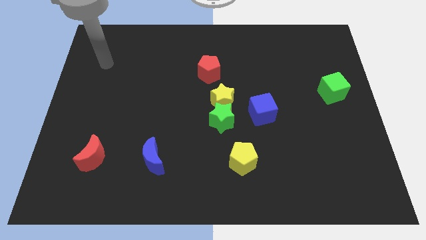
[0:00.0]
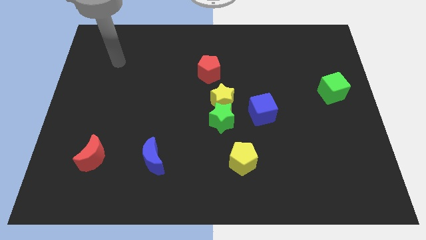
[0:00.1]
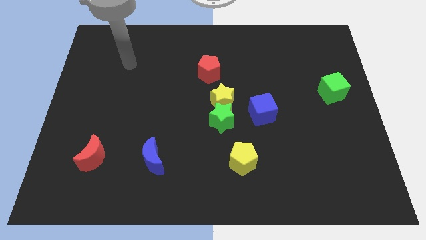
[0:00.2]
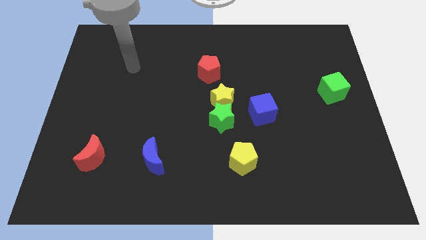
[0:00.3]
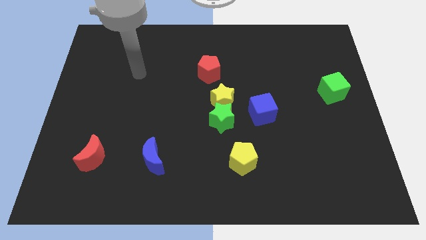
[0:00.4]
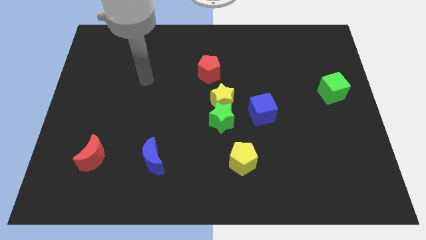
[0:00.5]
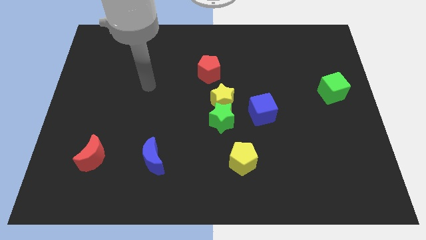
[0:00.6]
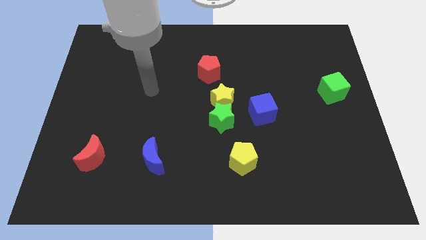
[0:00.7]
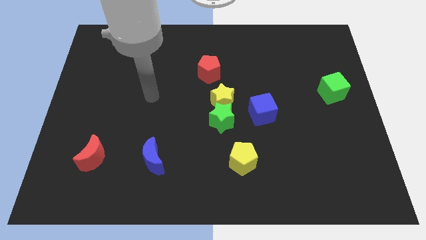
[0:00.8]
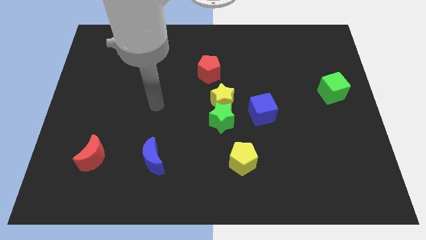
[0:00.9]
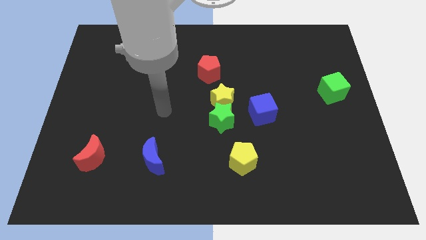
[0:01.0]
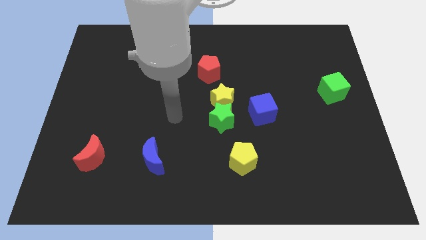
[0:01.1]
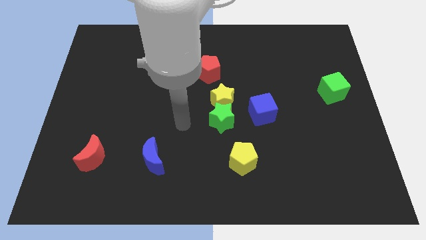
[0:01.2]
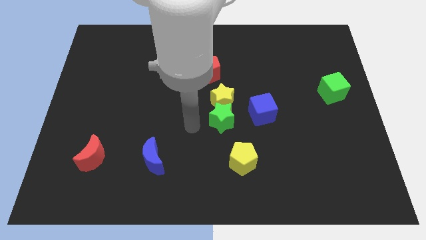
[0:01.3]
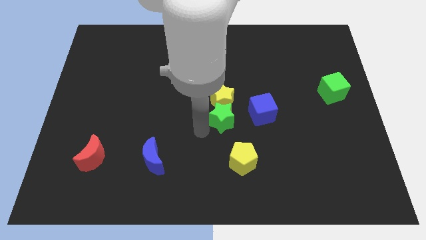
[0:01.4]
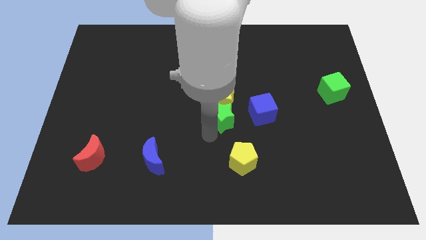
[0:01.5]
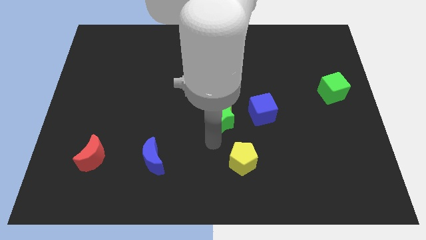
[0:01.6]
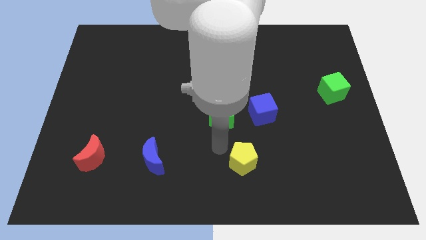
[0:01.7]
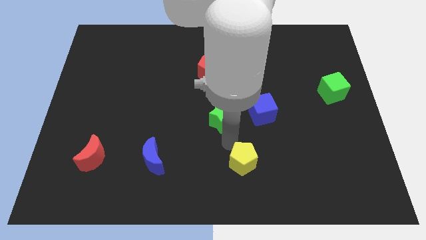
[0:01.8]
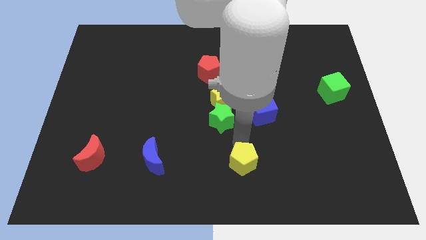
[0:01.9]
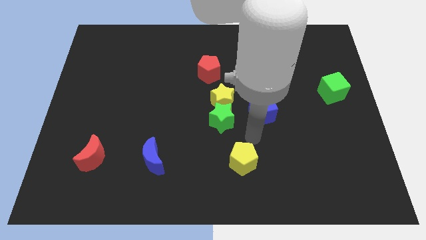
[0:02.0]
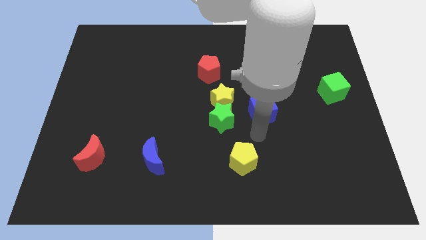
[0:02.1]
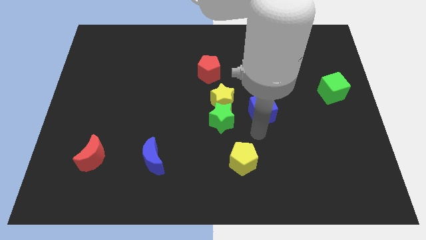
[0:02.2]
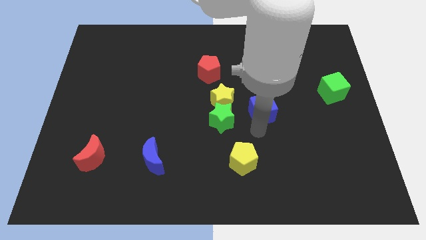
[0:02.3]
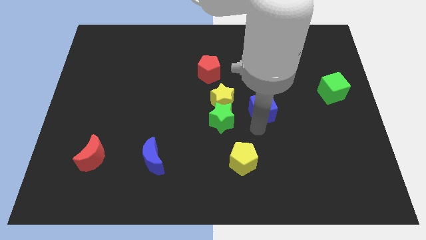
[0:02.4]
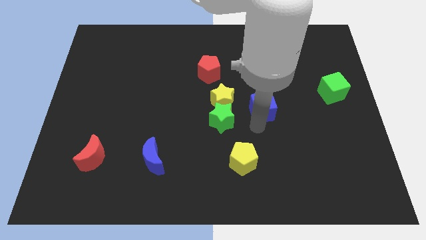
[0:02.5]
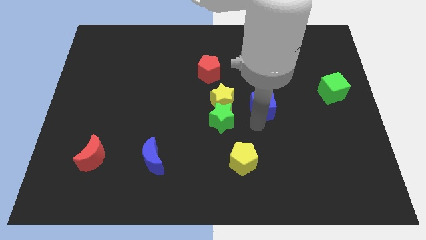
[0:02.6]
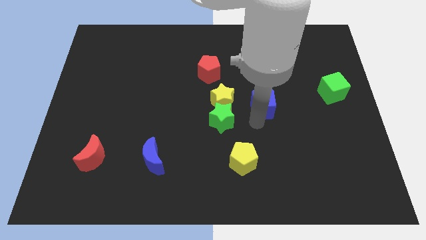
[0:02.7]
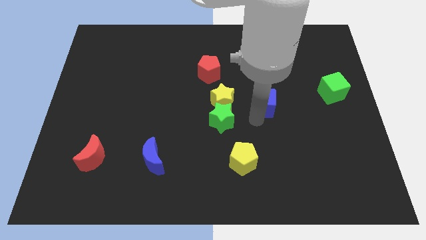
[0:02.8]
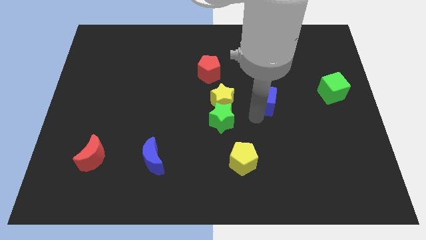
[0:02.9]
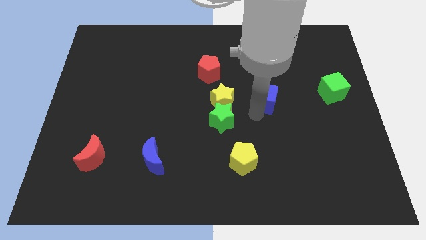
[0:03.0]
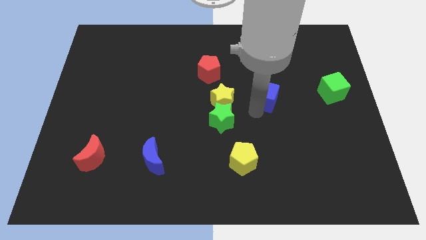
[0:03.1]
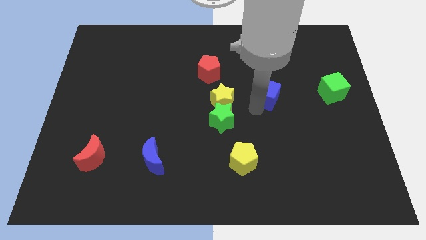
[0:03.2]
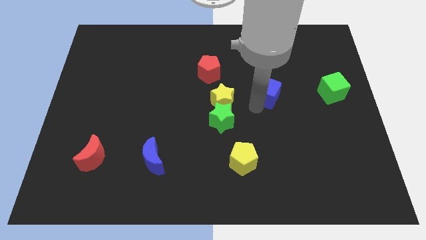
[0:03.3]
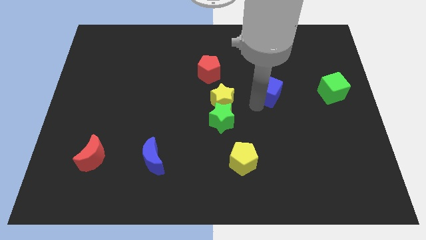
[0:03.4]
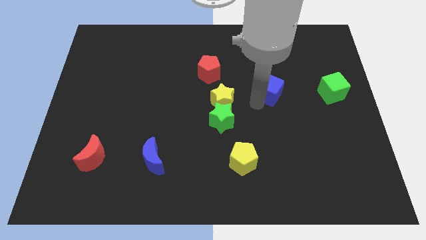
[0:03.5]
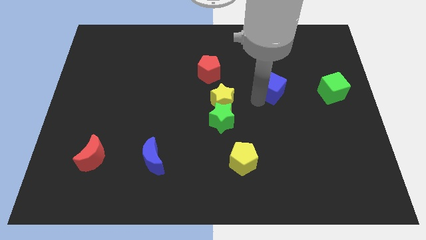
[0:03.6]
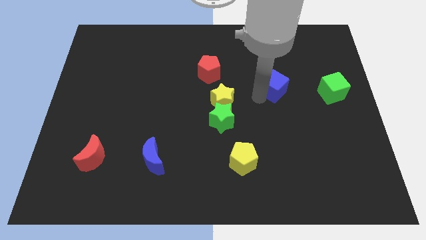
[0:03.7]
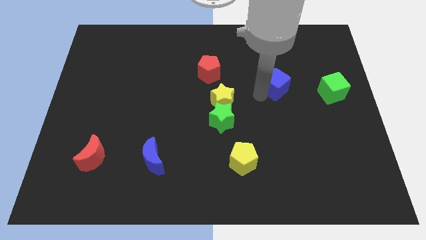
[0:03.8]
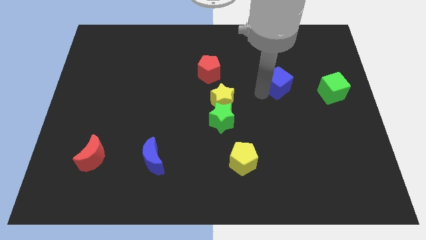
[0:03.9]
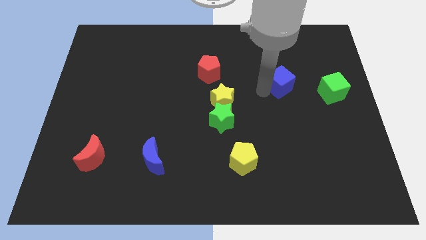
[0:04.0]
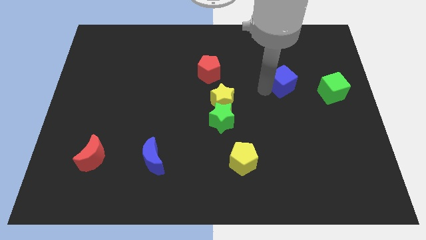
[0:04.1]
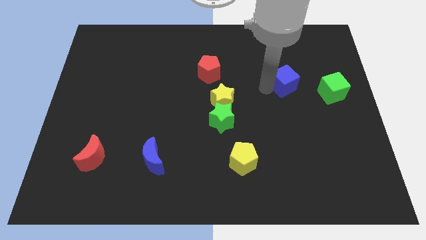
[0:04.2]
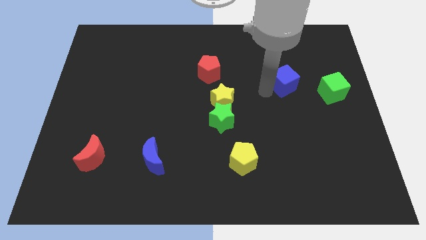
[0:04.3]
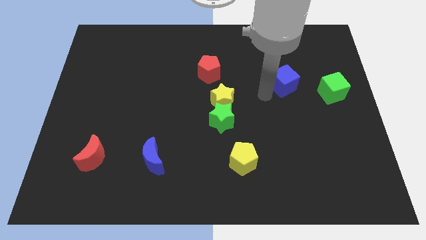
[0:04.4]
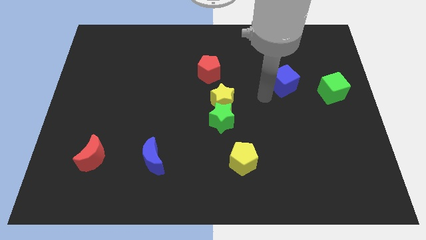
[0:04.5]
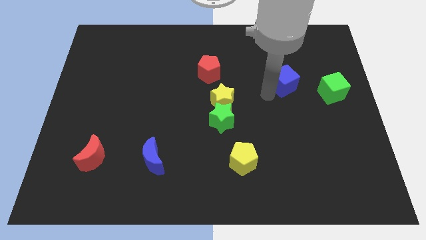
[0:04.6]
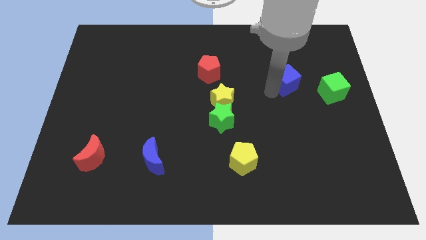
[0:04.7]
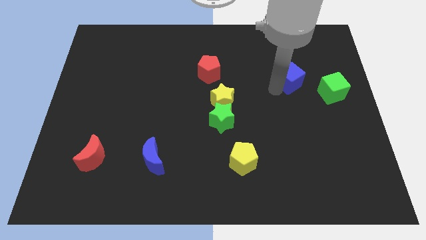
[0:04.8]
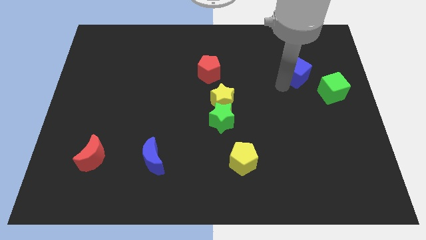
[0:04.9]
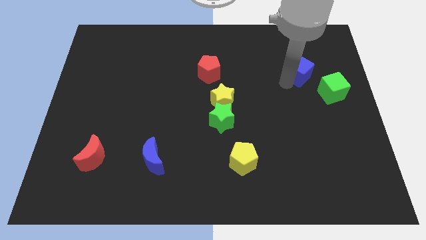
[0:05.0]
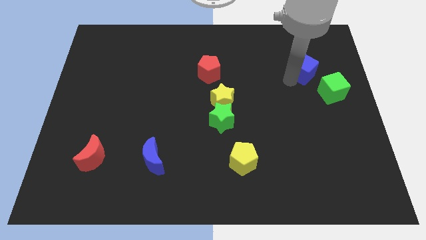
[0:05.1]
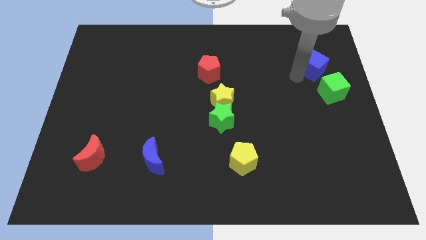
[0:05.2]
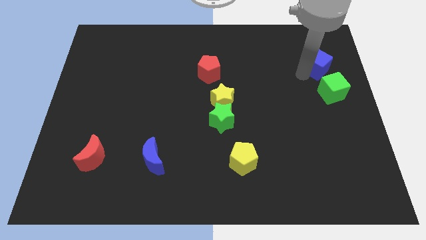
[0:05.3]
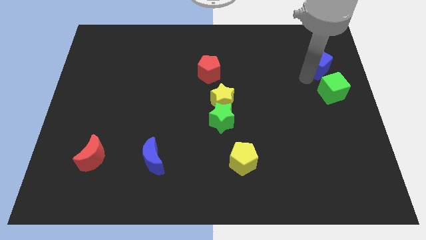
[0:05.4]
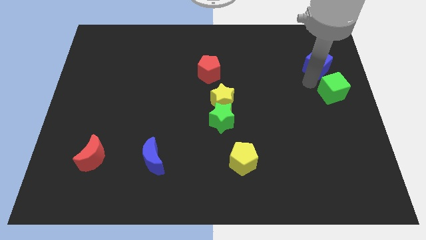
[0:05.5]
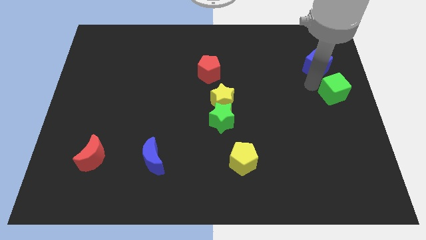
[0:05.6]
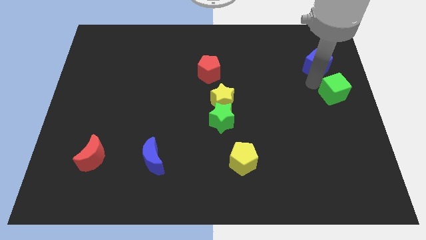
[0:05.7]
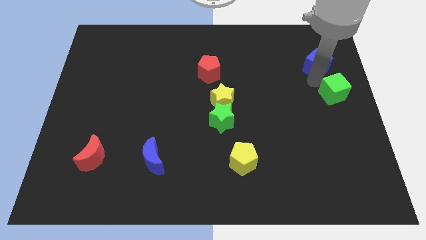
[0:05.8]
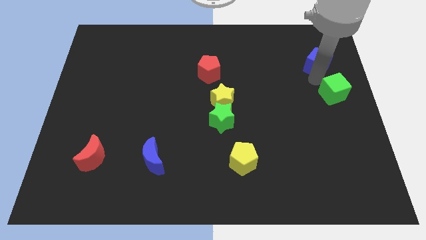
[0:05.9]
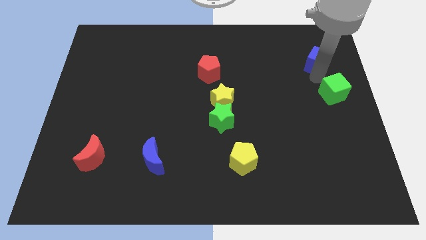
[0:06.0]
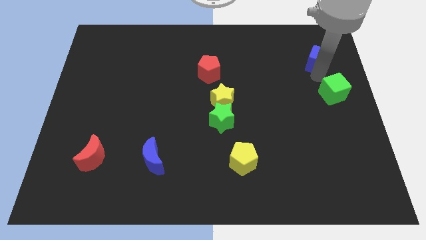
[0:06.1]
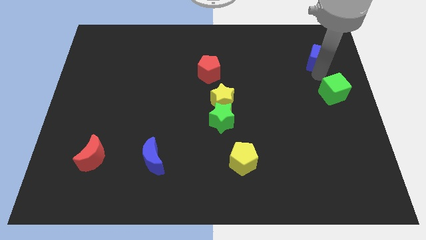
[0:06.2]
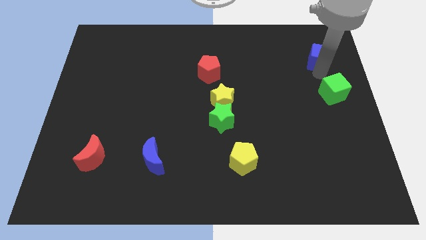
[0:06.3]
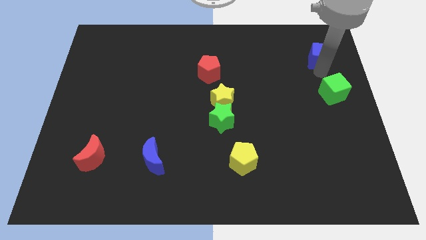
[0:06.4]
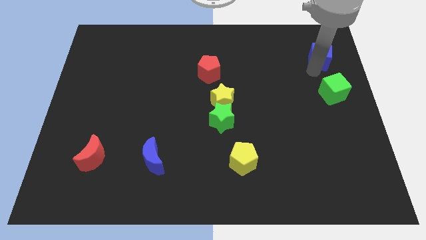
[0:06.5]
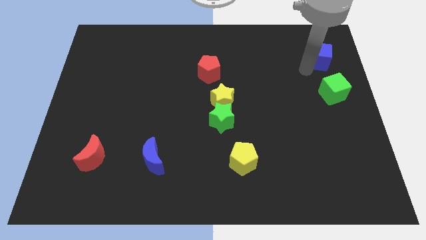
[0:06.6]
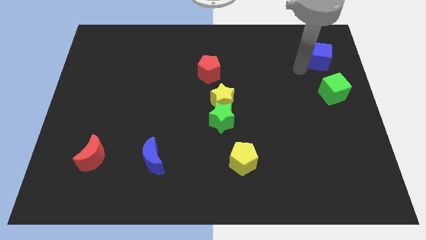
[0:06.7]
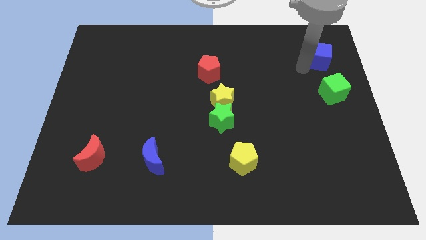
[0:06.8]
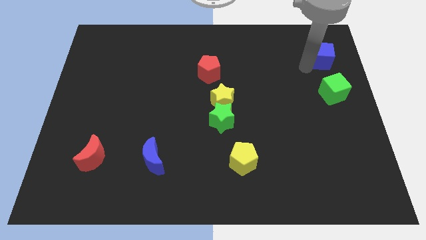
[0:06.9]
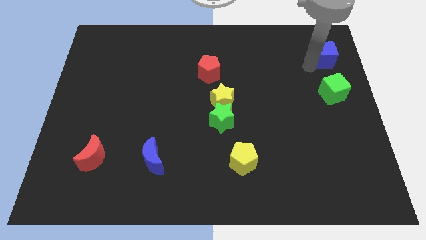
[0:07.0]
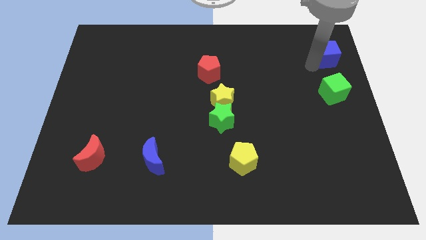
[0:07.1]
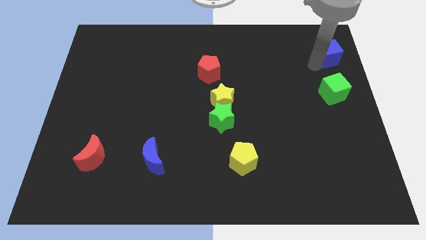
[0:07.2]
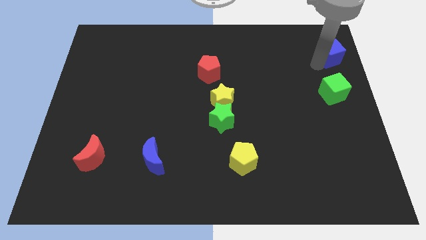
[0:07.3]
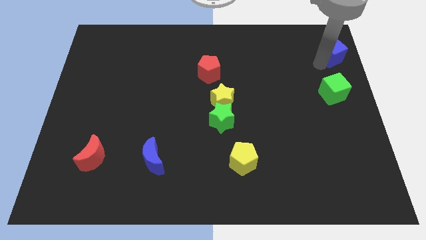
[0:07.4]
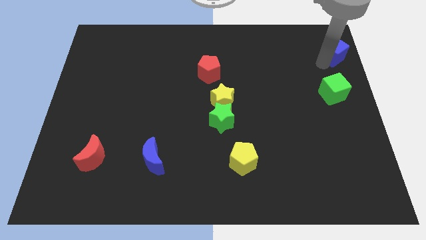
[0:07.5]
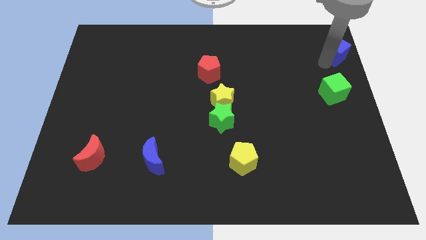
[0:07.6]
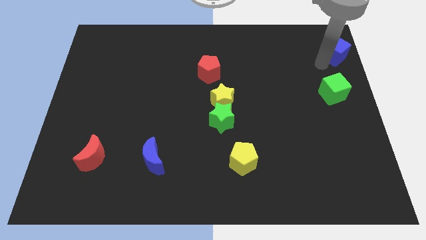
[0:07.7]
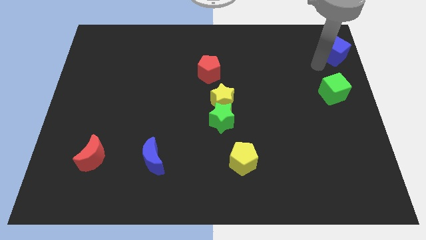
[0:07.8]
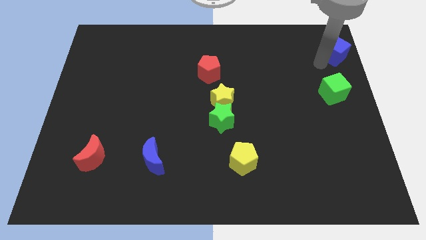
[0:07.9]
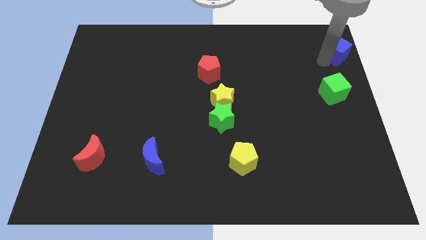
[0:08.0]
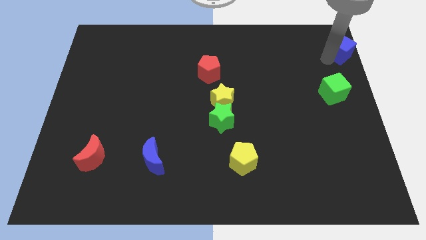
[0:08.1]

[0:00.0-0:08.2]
slide the blue cube to the upper right corner

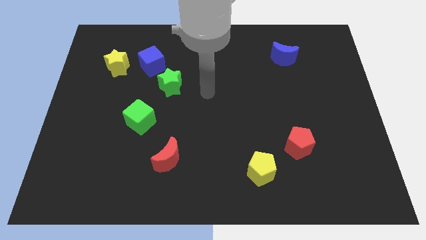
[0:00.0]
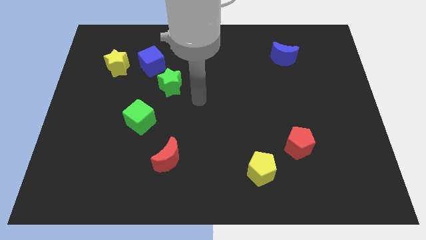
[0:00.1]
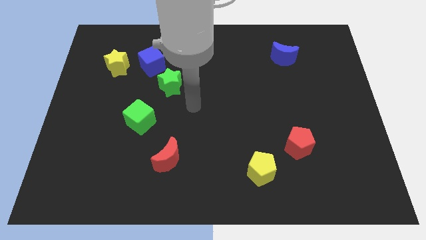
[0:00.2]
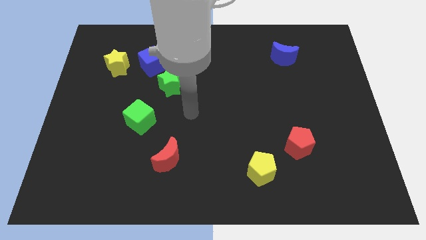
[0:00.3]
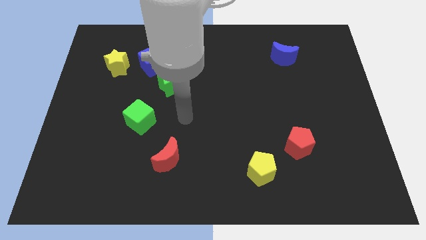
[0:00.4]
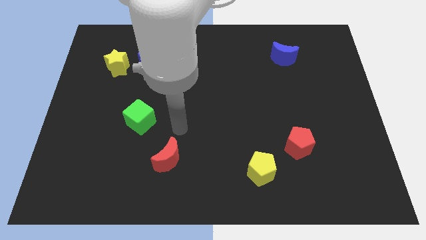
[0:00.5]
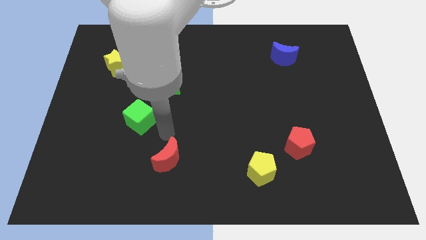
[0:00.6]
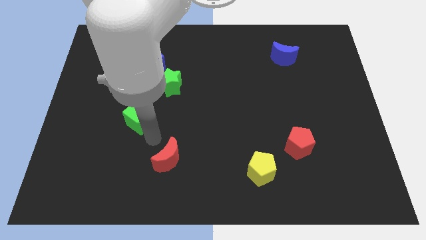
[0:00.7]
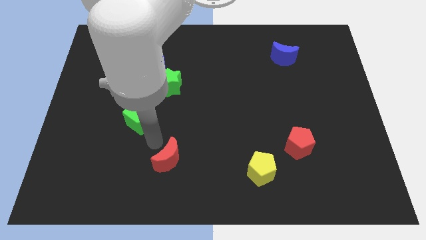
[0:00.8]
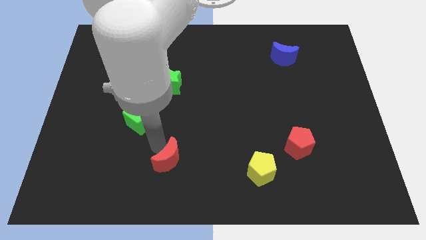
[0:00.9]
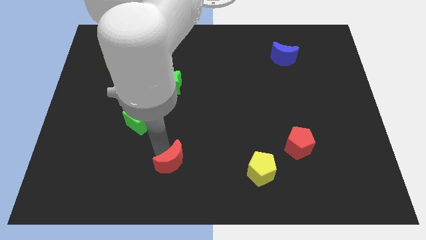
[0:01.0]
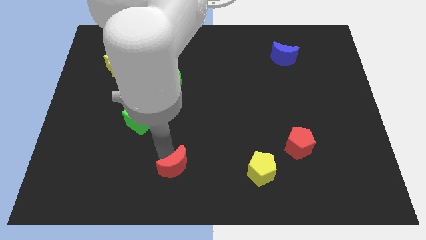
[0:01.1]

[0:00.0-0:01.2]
put the red moon to the bottom side
